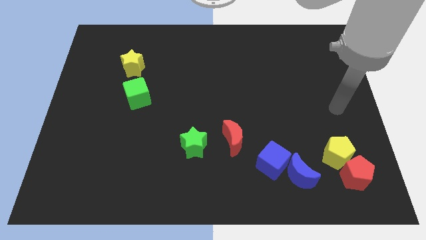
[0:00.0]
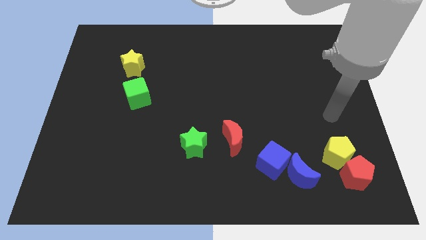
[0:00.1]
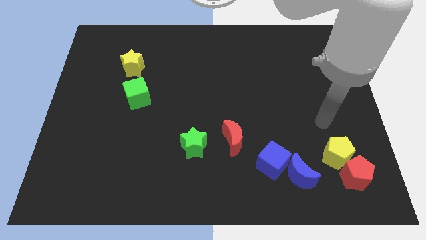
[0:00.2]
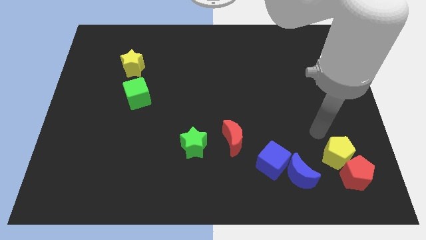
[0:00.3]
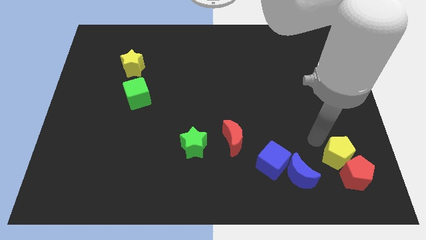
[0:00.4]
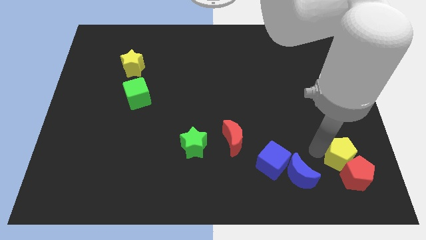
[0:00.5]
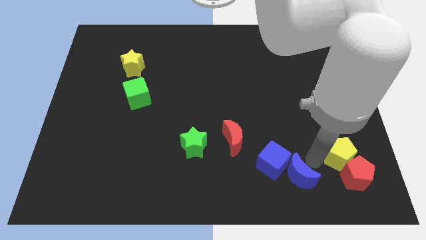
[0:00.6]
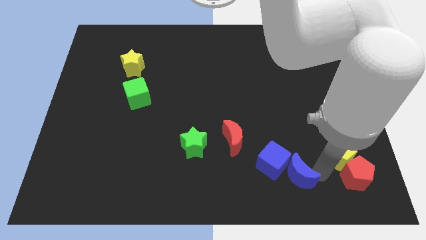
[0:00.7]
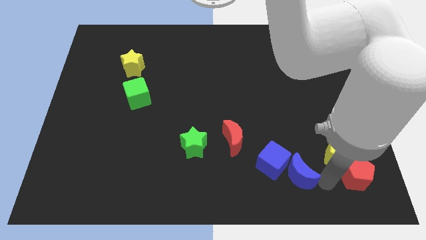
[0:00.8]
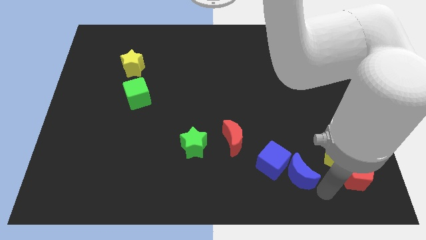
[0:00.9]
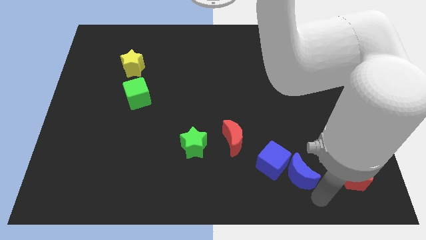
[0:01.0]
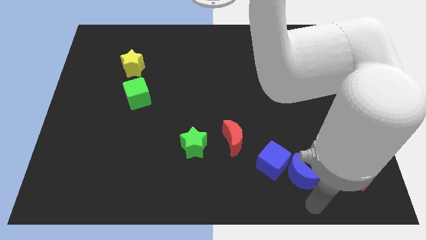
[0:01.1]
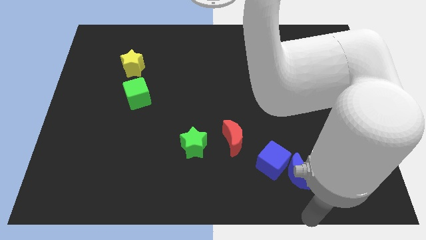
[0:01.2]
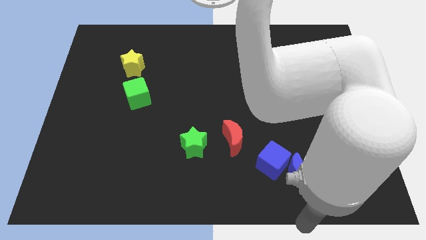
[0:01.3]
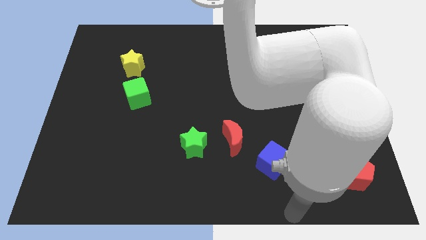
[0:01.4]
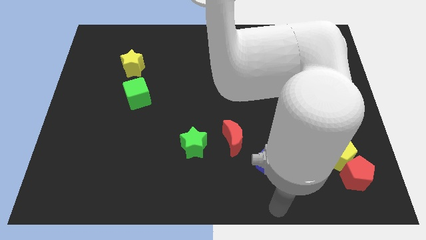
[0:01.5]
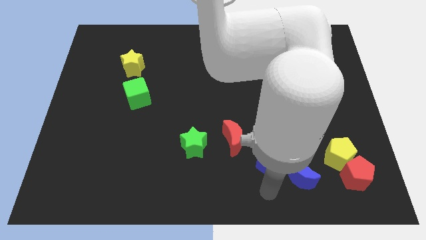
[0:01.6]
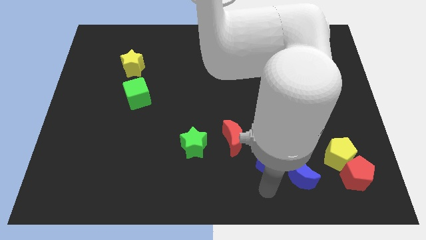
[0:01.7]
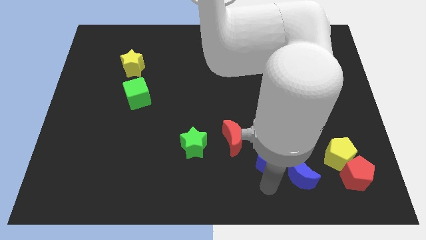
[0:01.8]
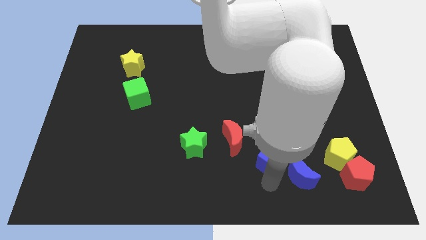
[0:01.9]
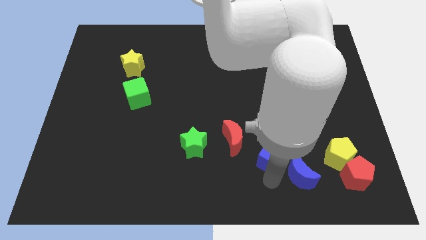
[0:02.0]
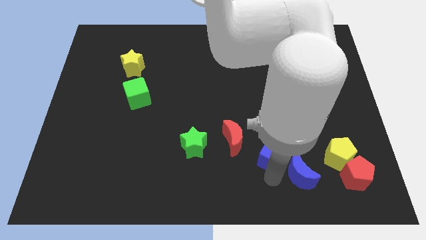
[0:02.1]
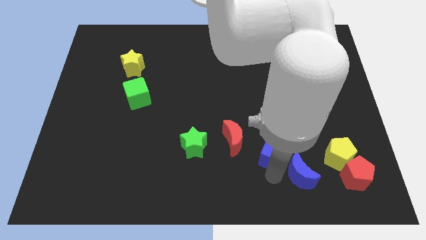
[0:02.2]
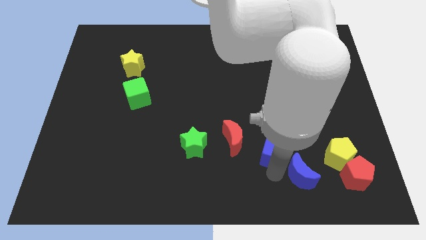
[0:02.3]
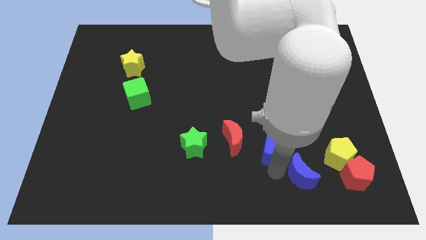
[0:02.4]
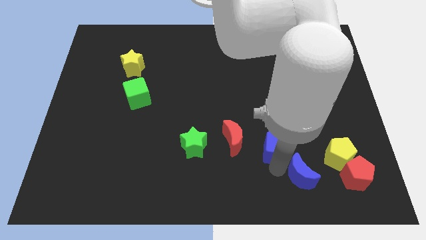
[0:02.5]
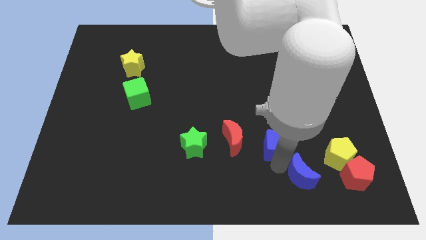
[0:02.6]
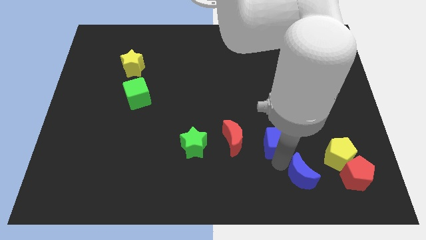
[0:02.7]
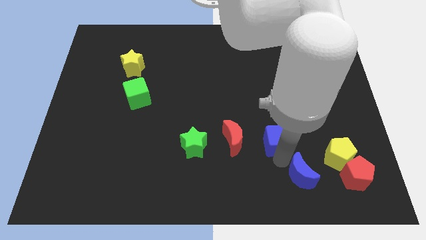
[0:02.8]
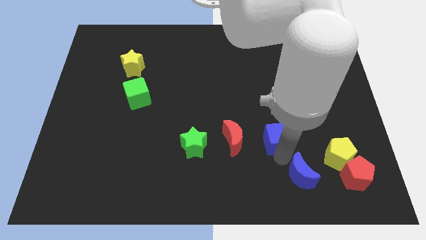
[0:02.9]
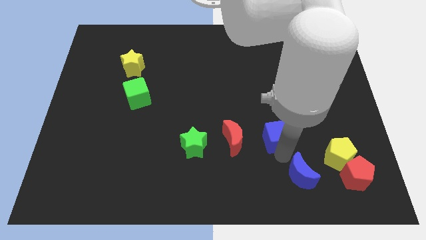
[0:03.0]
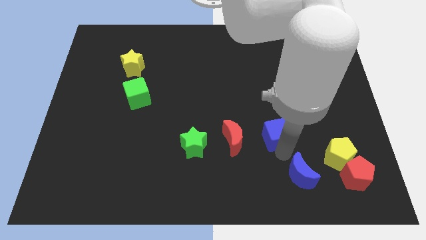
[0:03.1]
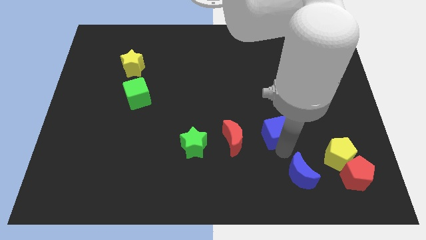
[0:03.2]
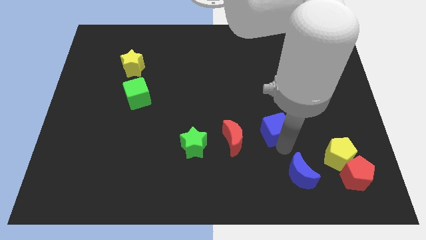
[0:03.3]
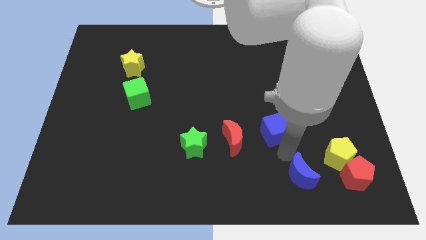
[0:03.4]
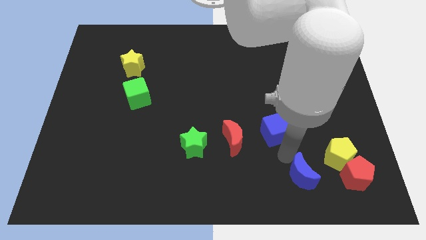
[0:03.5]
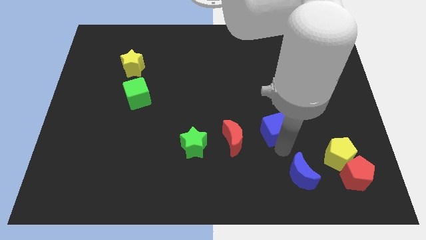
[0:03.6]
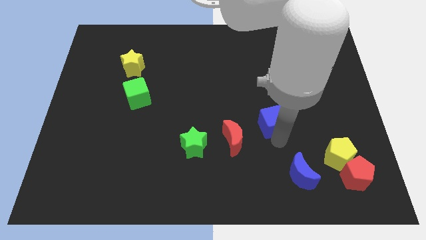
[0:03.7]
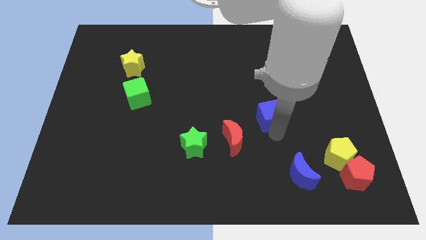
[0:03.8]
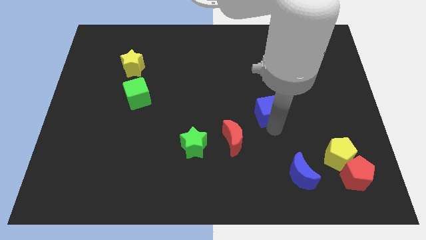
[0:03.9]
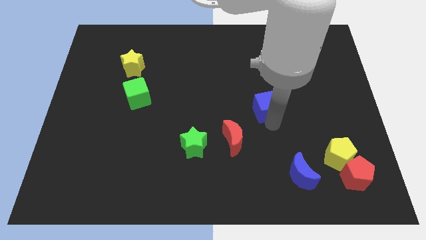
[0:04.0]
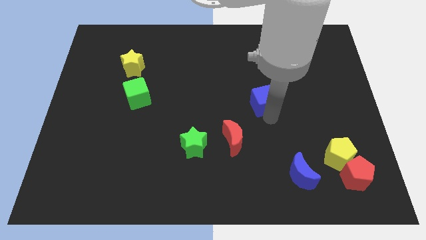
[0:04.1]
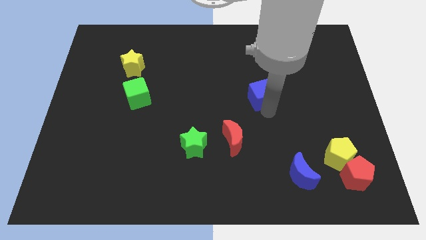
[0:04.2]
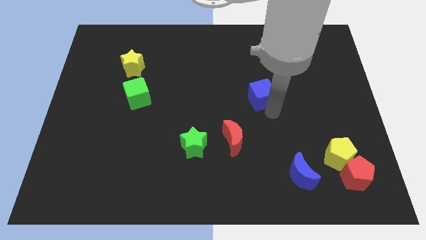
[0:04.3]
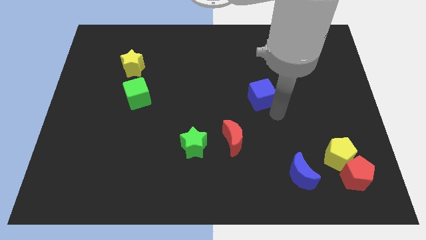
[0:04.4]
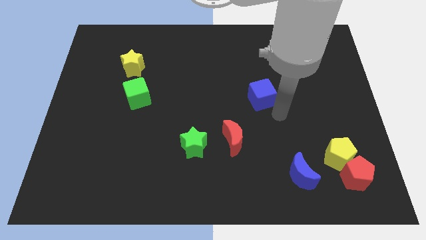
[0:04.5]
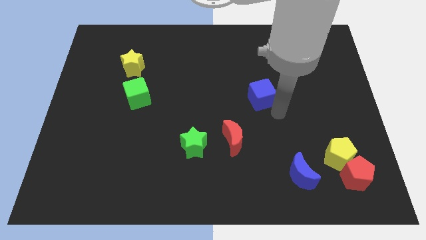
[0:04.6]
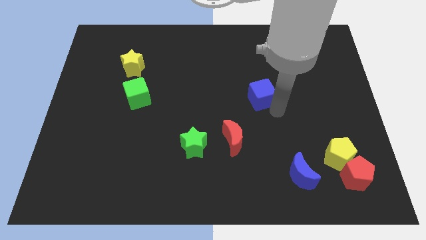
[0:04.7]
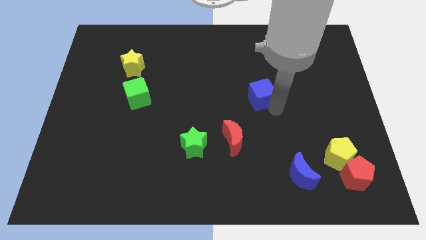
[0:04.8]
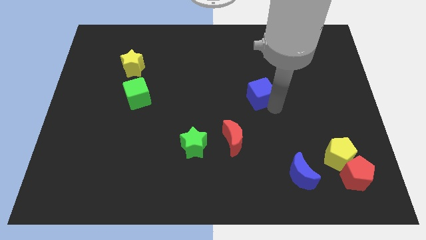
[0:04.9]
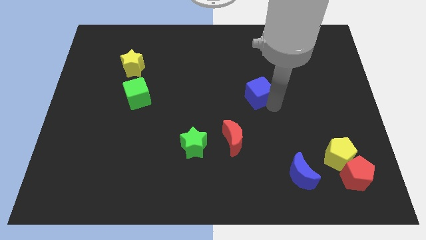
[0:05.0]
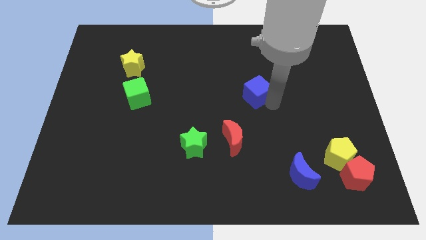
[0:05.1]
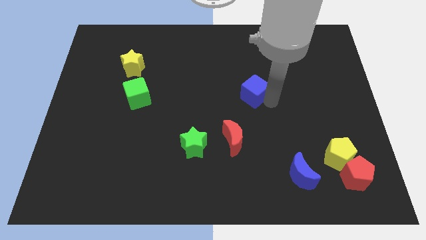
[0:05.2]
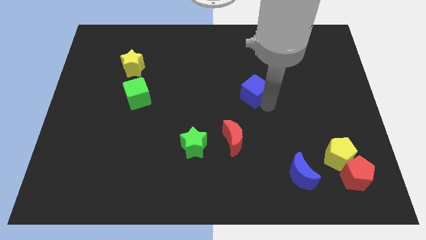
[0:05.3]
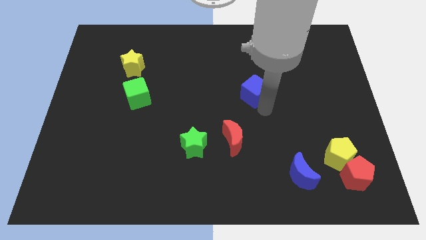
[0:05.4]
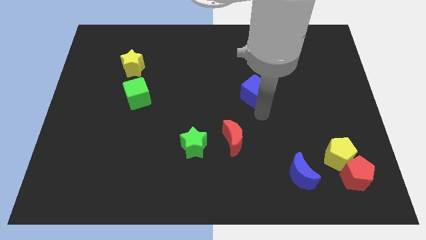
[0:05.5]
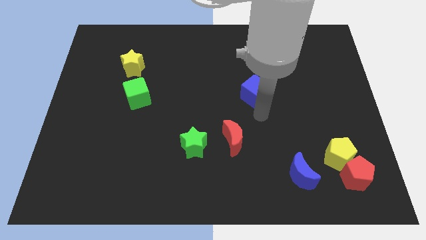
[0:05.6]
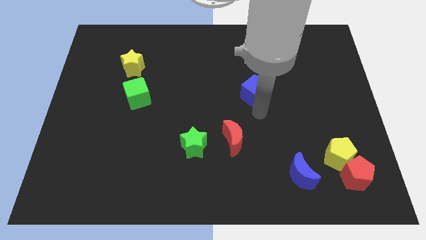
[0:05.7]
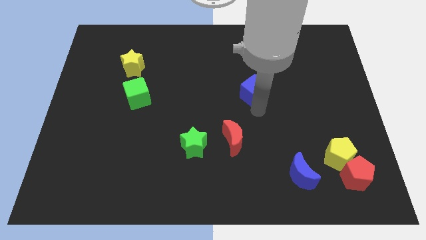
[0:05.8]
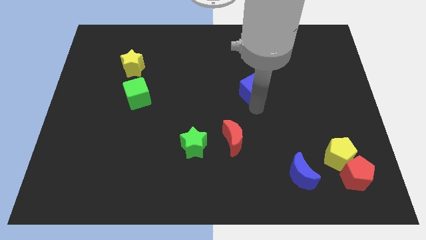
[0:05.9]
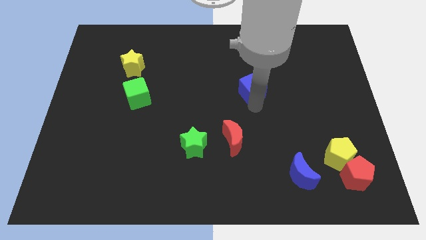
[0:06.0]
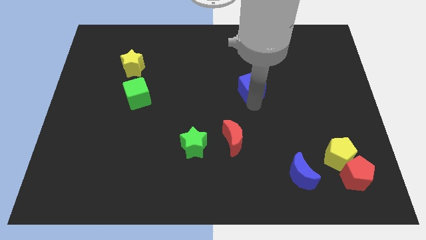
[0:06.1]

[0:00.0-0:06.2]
move the blue cube up

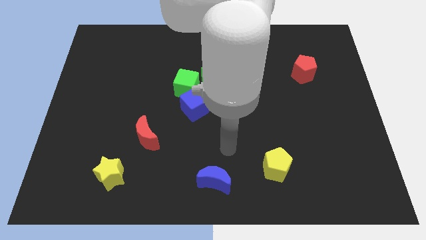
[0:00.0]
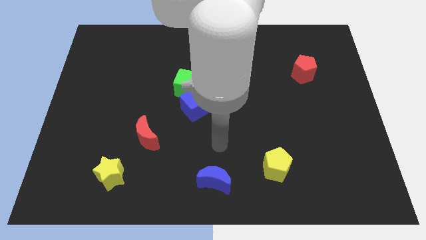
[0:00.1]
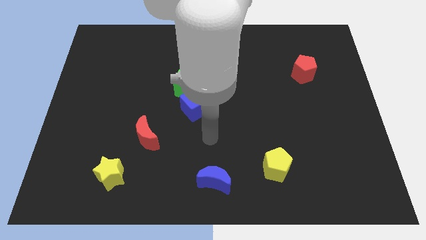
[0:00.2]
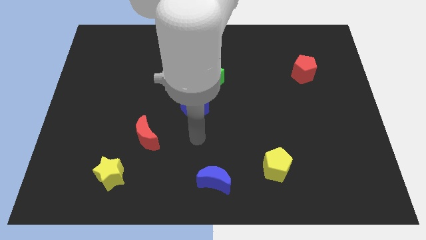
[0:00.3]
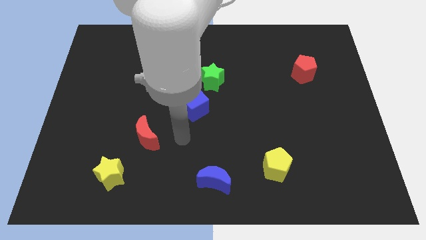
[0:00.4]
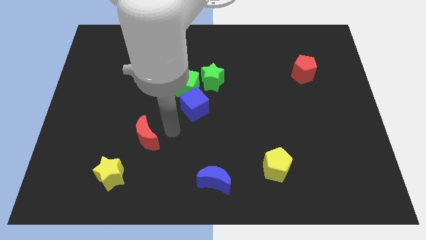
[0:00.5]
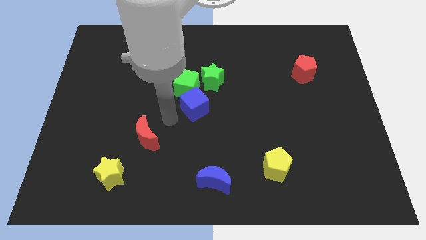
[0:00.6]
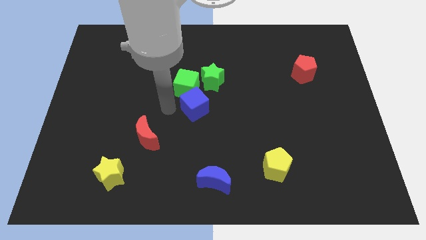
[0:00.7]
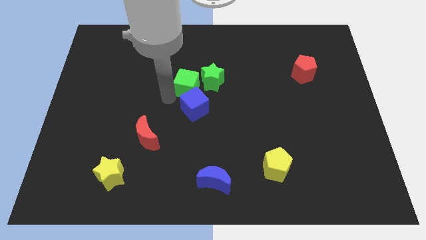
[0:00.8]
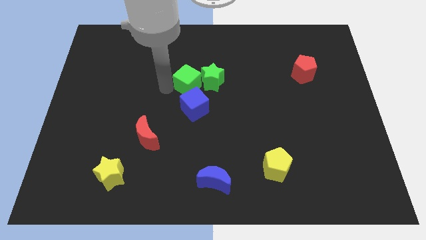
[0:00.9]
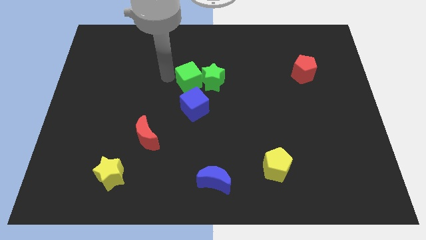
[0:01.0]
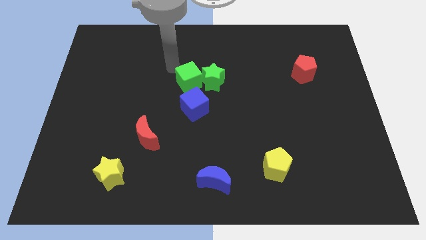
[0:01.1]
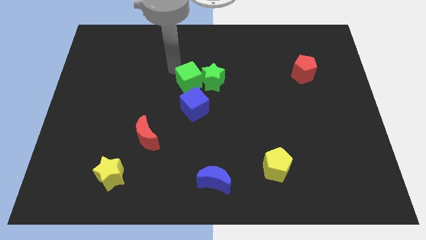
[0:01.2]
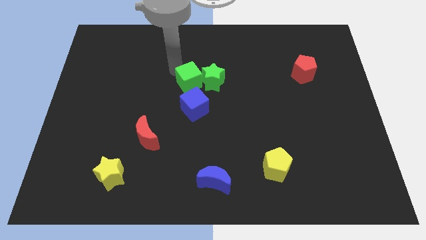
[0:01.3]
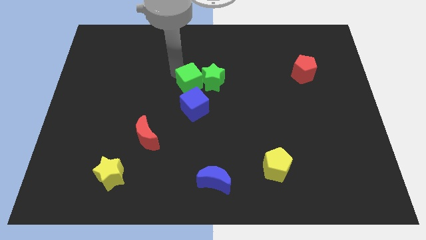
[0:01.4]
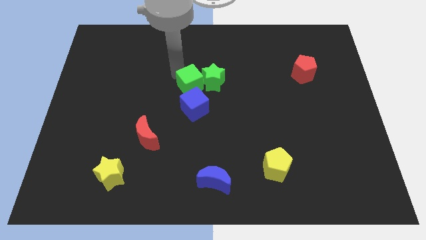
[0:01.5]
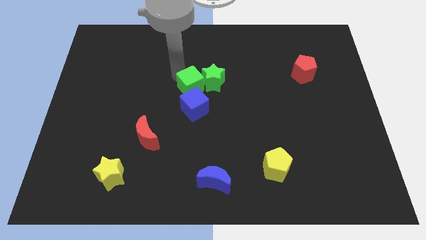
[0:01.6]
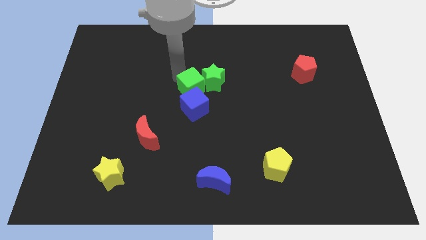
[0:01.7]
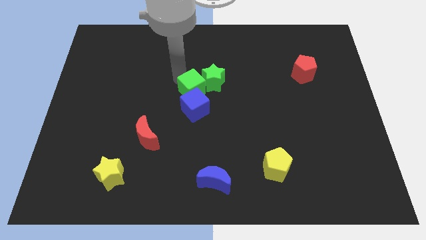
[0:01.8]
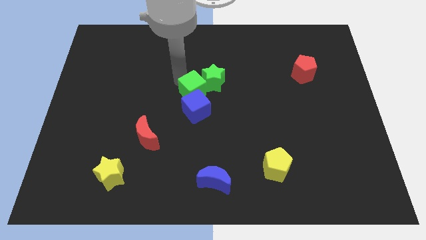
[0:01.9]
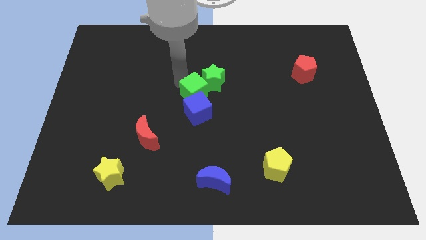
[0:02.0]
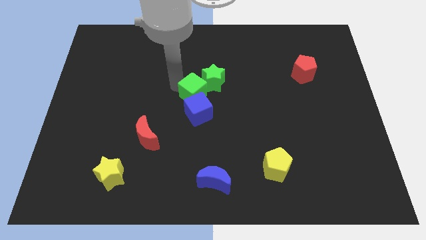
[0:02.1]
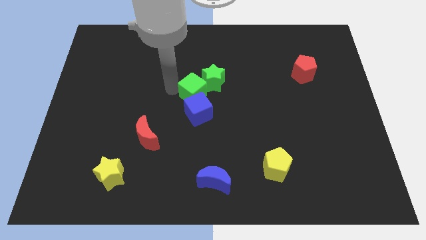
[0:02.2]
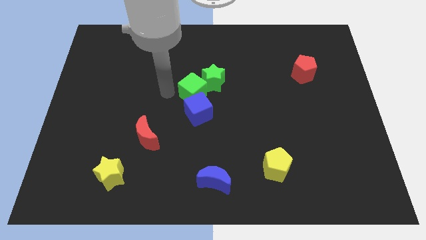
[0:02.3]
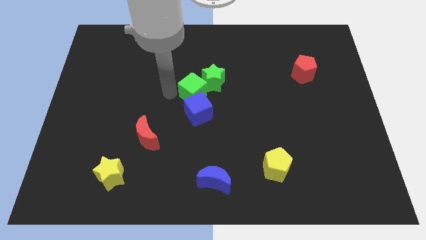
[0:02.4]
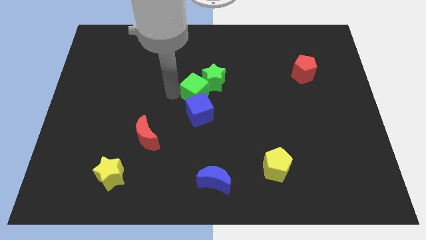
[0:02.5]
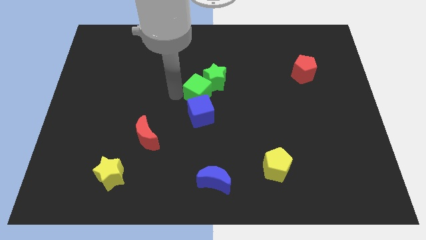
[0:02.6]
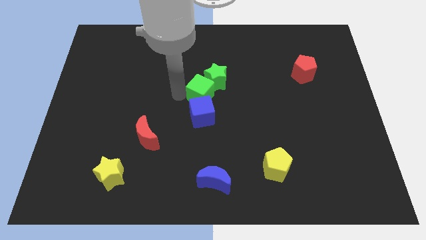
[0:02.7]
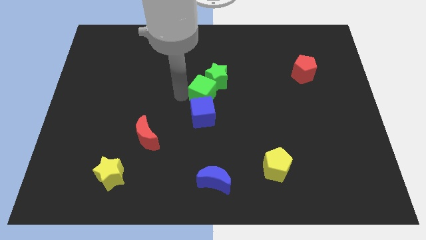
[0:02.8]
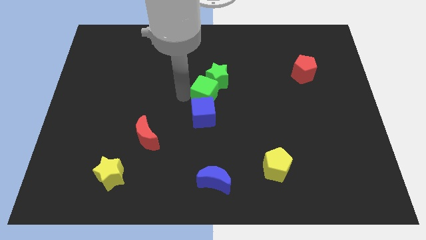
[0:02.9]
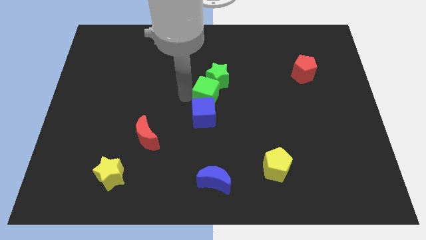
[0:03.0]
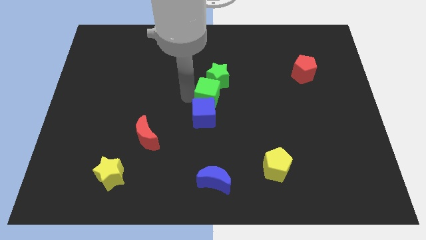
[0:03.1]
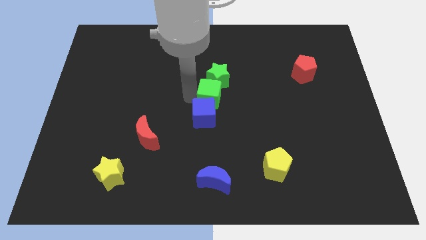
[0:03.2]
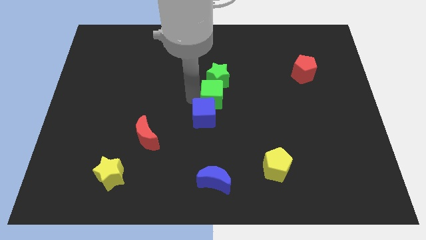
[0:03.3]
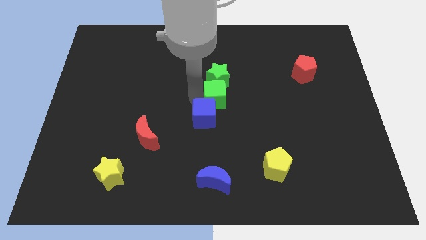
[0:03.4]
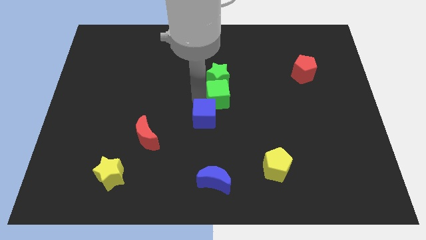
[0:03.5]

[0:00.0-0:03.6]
slide the green cube somewhat right
